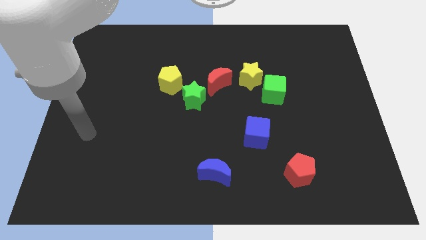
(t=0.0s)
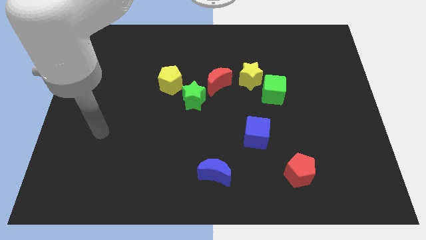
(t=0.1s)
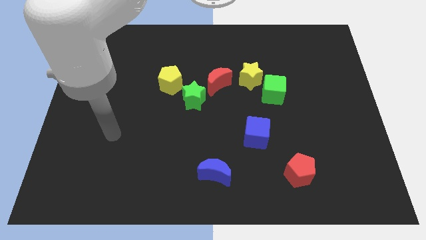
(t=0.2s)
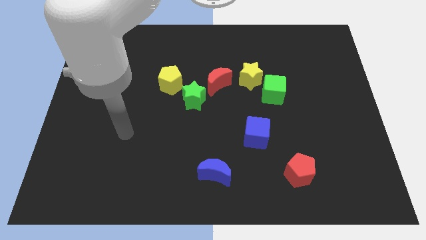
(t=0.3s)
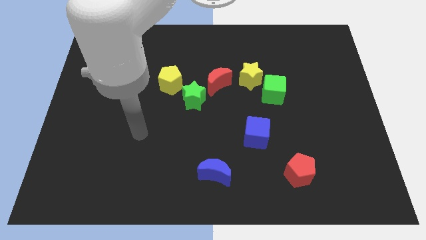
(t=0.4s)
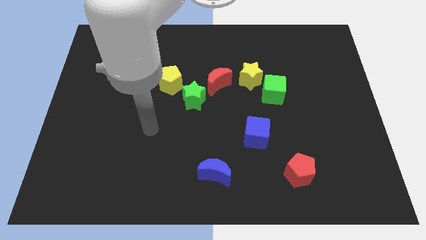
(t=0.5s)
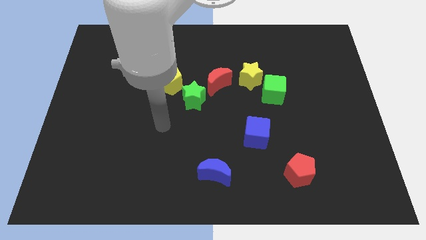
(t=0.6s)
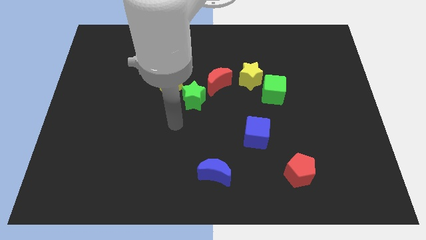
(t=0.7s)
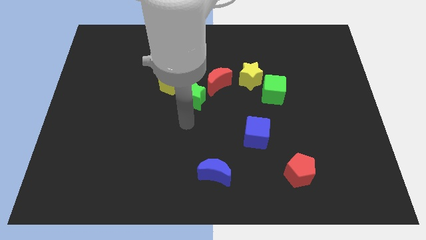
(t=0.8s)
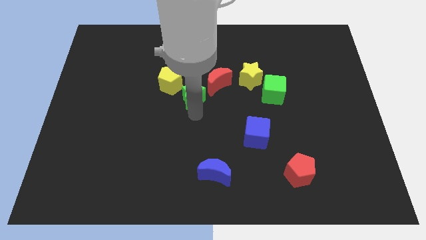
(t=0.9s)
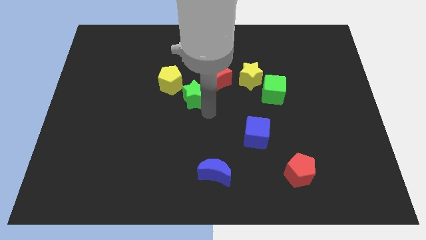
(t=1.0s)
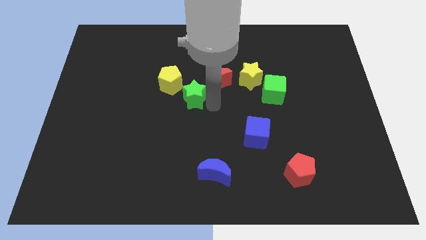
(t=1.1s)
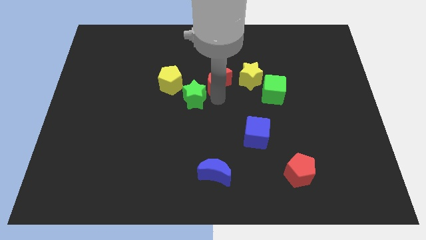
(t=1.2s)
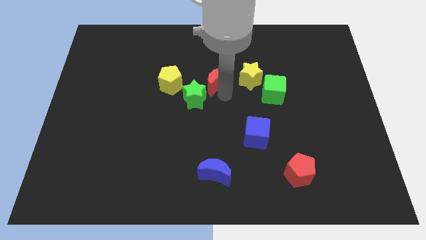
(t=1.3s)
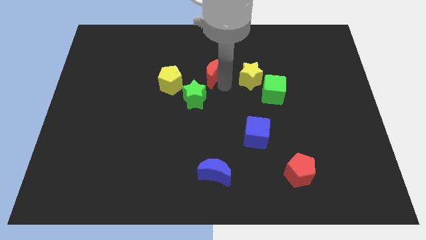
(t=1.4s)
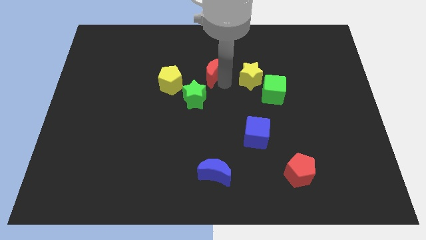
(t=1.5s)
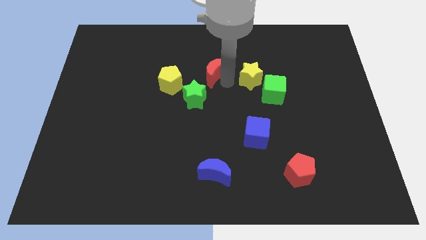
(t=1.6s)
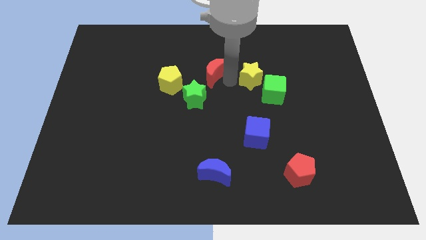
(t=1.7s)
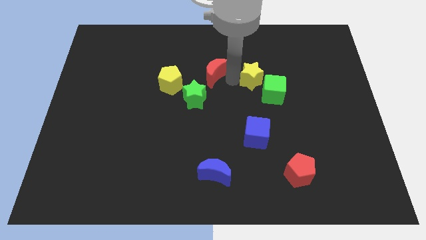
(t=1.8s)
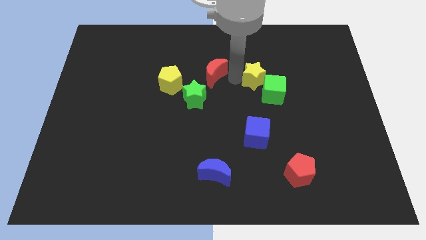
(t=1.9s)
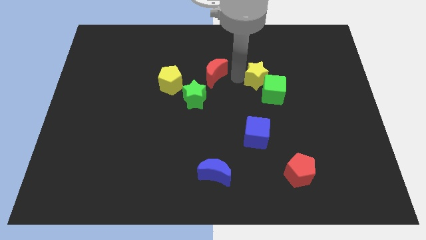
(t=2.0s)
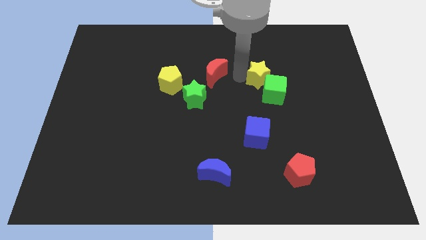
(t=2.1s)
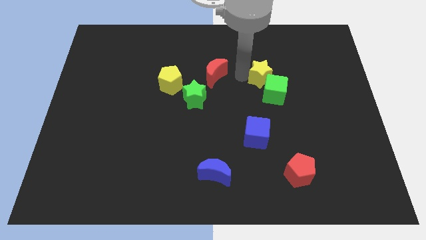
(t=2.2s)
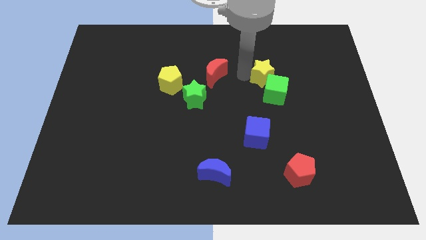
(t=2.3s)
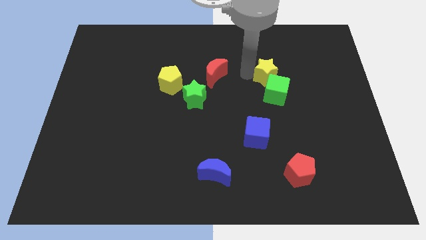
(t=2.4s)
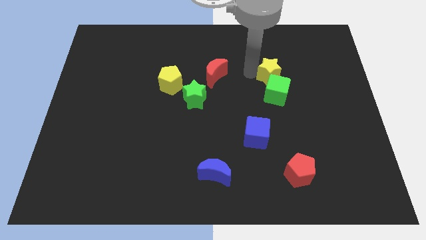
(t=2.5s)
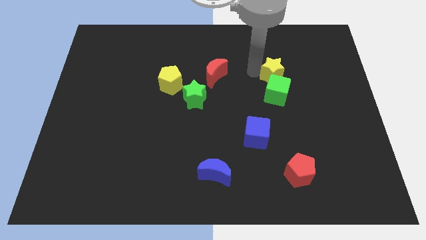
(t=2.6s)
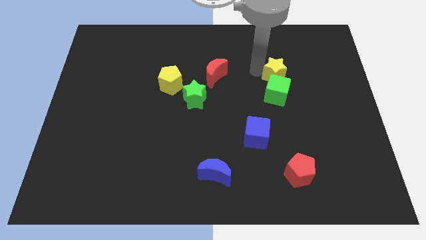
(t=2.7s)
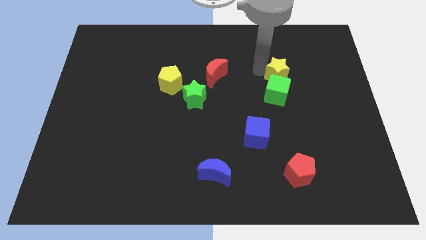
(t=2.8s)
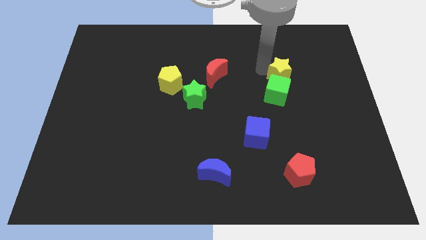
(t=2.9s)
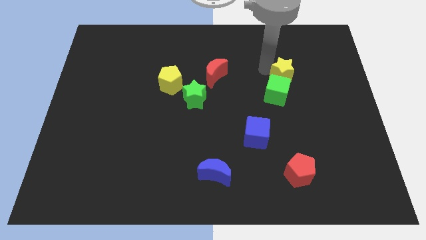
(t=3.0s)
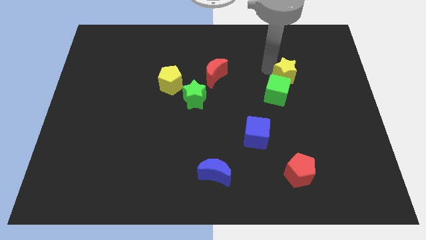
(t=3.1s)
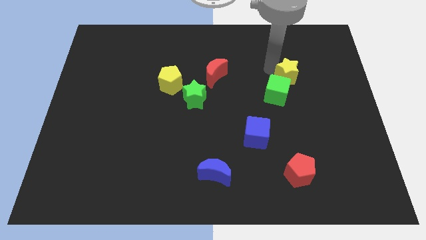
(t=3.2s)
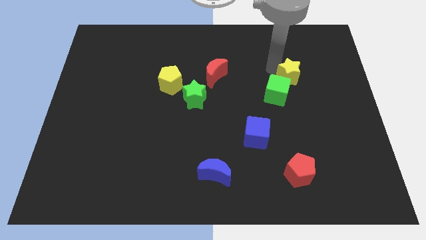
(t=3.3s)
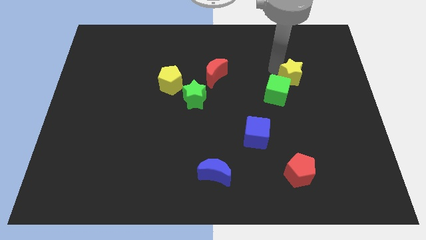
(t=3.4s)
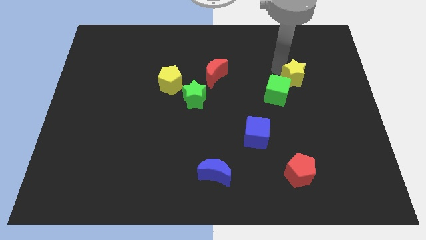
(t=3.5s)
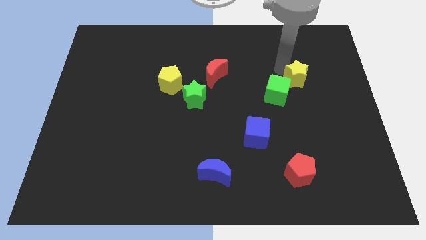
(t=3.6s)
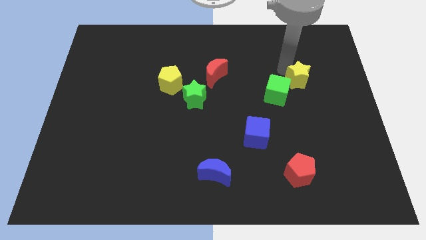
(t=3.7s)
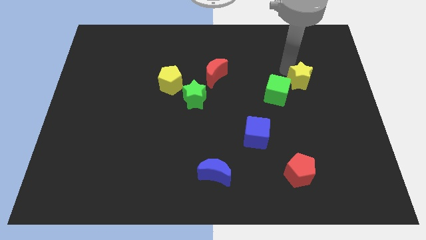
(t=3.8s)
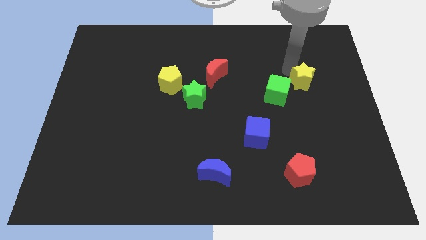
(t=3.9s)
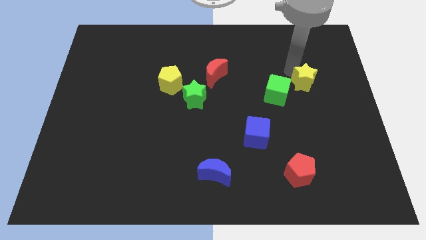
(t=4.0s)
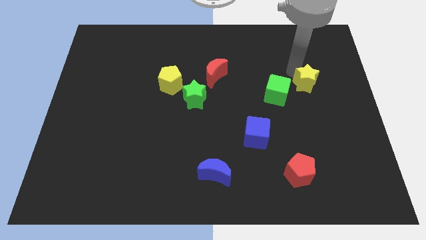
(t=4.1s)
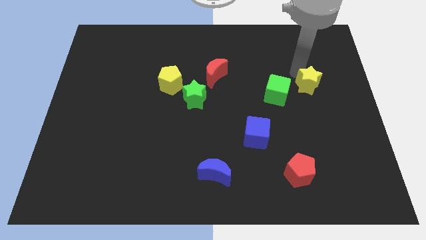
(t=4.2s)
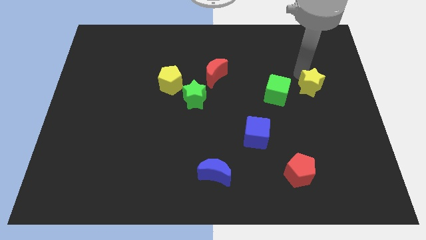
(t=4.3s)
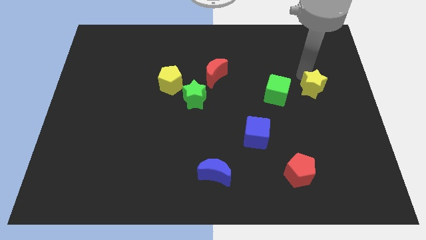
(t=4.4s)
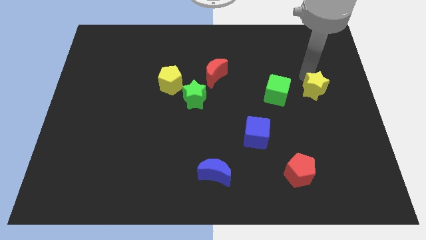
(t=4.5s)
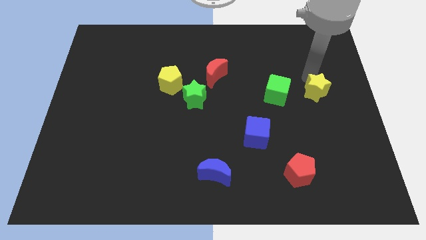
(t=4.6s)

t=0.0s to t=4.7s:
move the yellow star to the center right

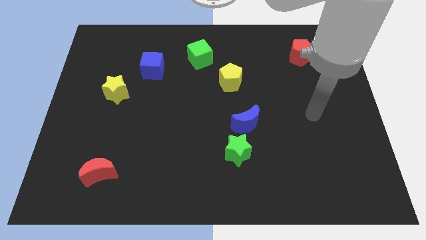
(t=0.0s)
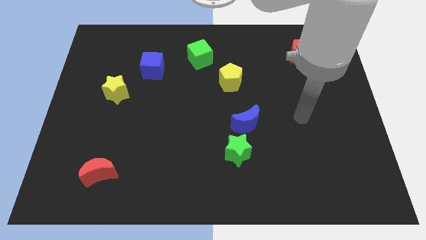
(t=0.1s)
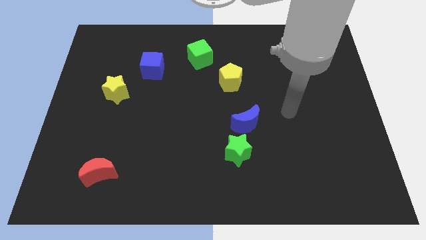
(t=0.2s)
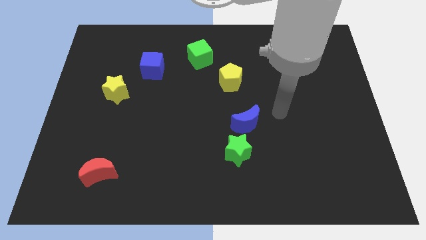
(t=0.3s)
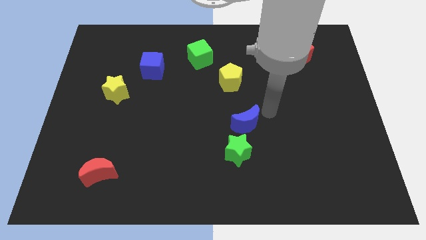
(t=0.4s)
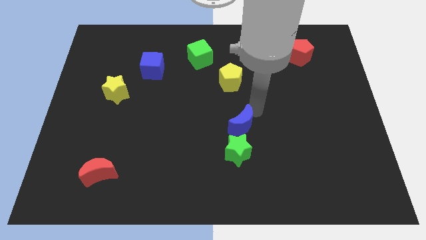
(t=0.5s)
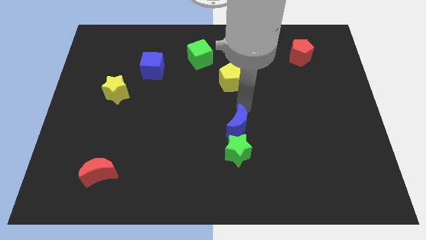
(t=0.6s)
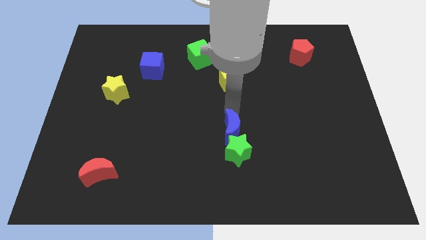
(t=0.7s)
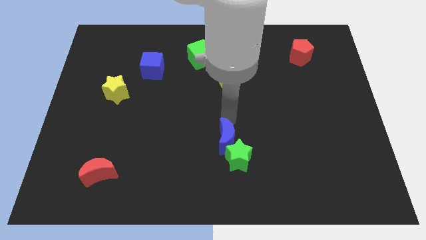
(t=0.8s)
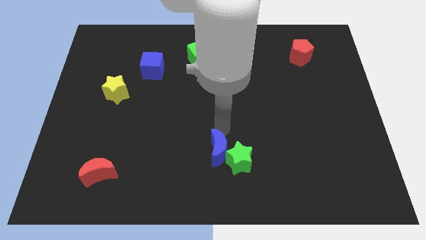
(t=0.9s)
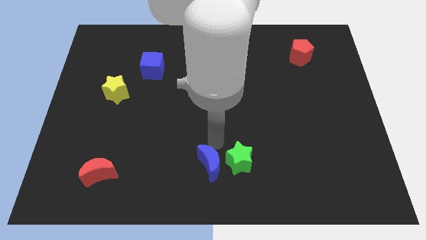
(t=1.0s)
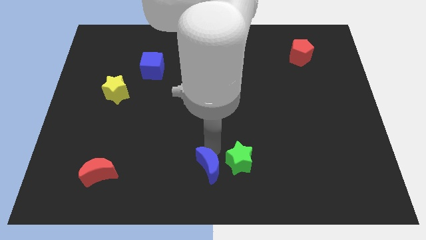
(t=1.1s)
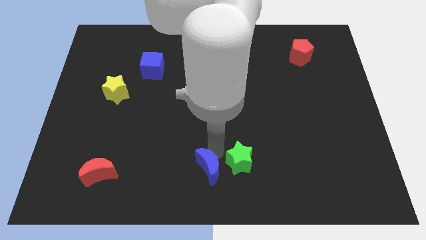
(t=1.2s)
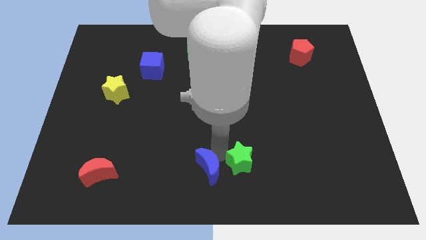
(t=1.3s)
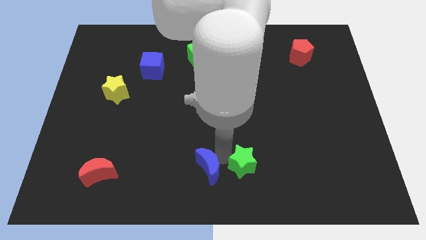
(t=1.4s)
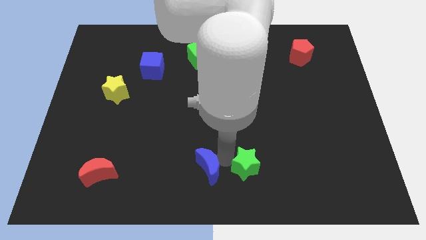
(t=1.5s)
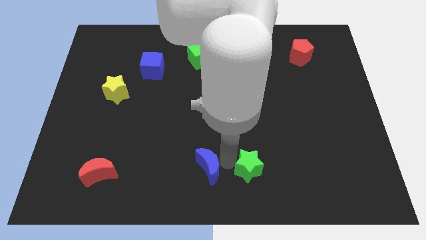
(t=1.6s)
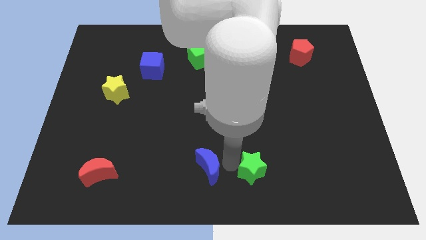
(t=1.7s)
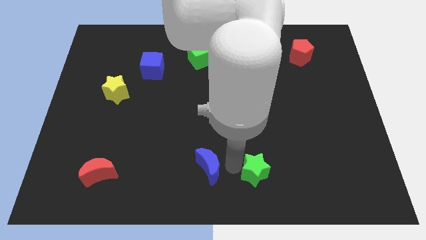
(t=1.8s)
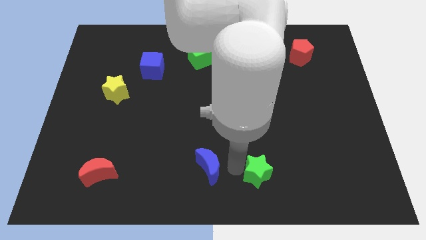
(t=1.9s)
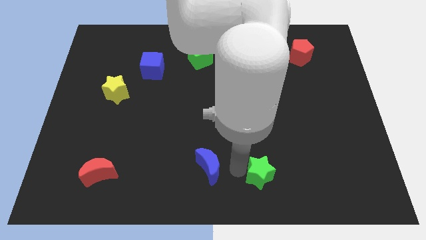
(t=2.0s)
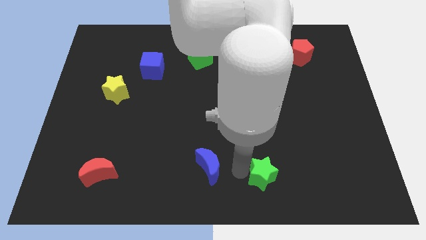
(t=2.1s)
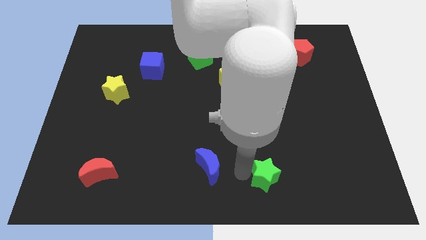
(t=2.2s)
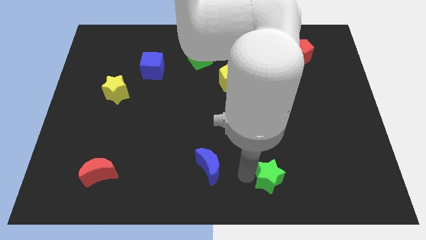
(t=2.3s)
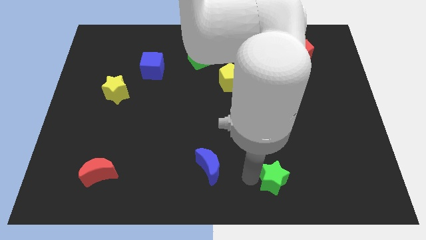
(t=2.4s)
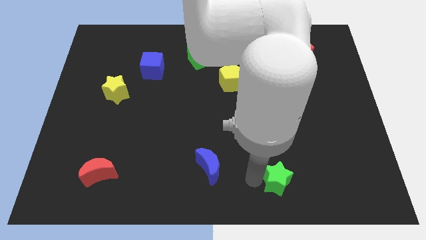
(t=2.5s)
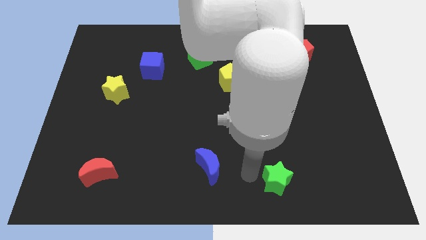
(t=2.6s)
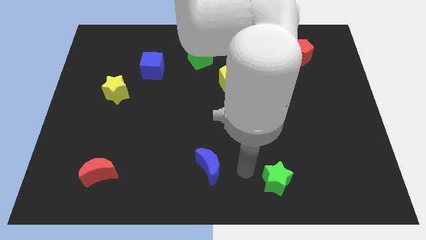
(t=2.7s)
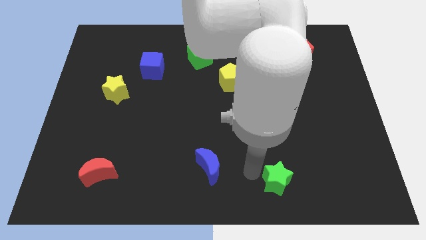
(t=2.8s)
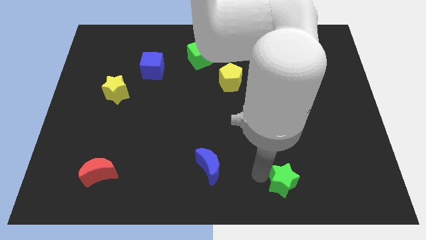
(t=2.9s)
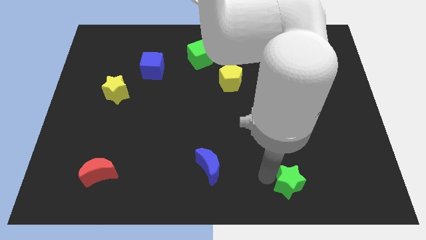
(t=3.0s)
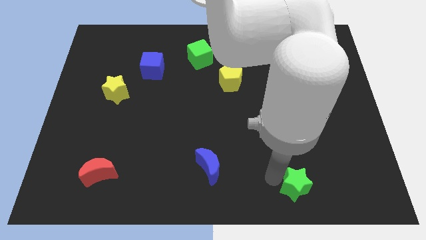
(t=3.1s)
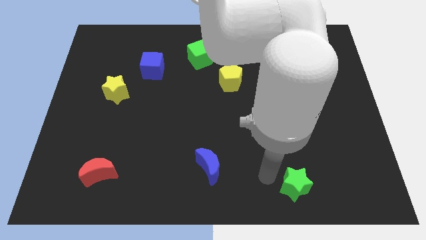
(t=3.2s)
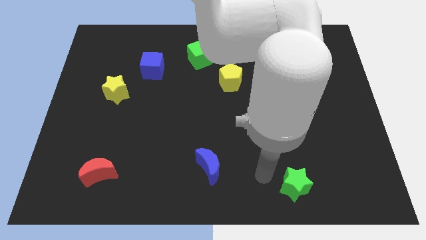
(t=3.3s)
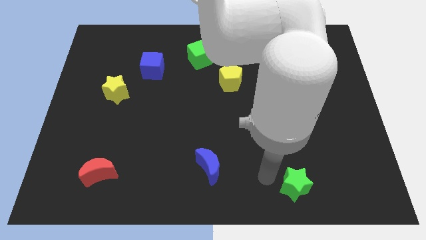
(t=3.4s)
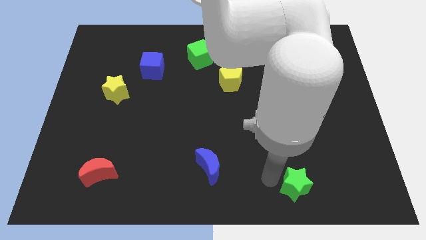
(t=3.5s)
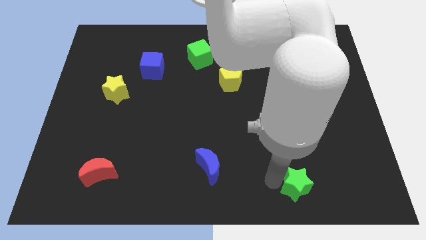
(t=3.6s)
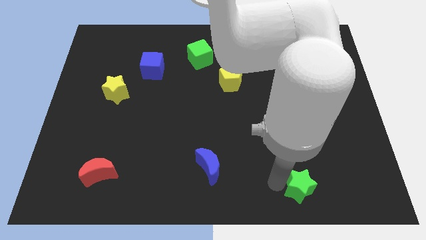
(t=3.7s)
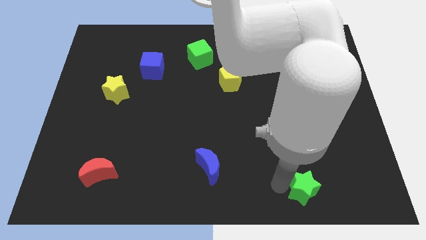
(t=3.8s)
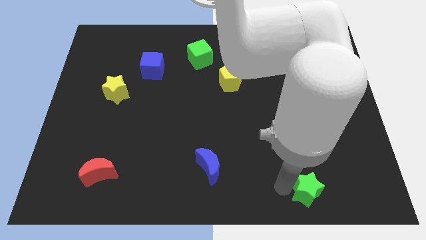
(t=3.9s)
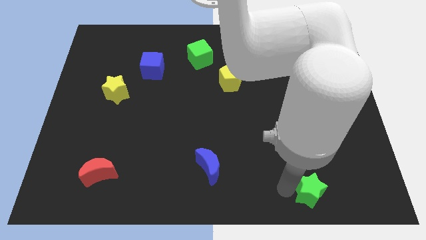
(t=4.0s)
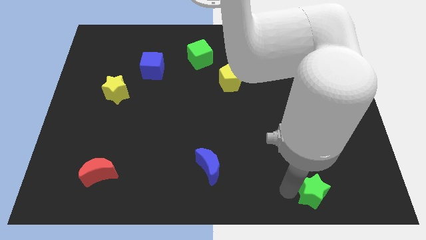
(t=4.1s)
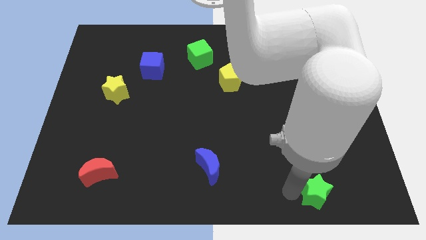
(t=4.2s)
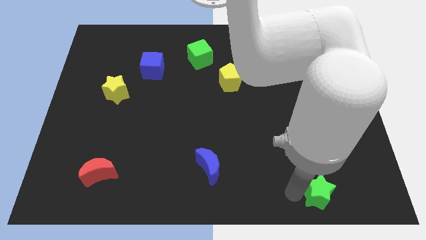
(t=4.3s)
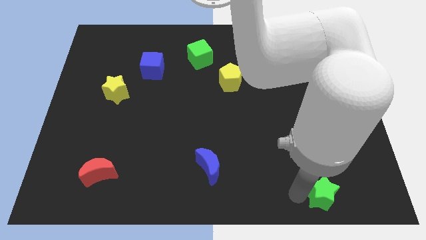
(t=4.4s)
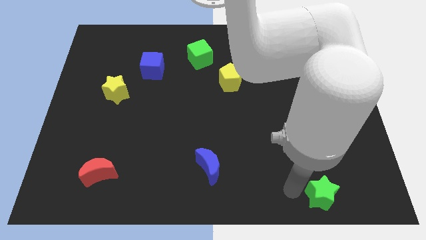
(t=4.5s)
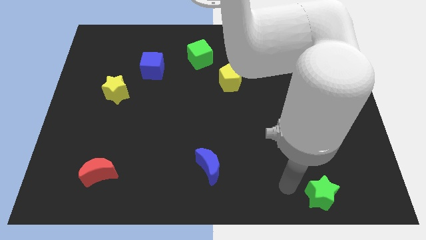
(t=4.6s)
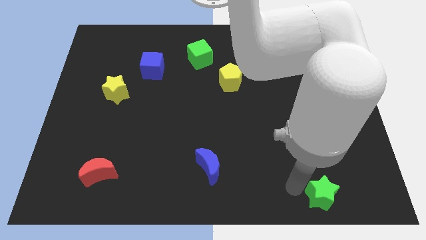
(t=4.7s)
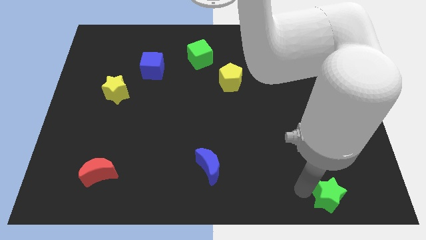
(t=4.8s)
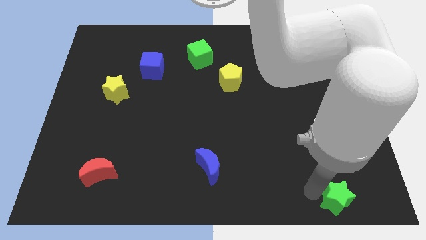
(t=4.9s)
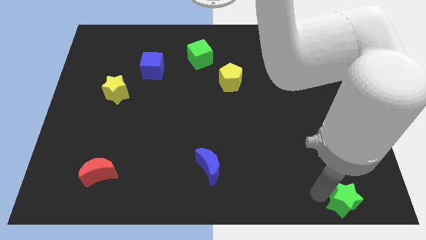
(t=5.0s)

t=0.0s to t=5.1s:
slide the green star to the bottom right corner
